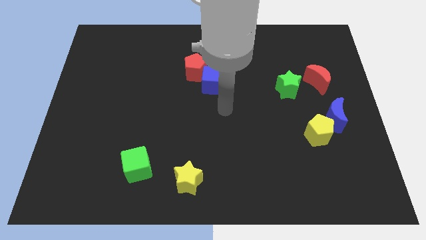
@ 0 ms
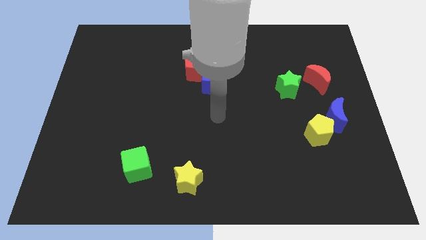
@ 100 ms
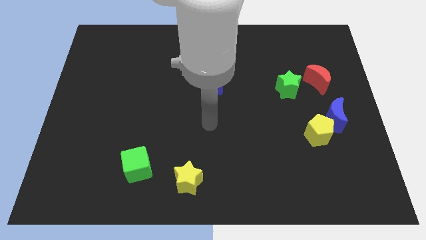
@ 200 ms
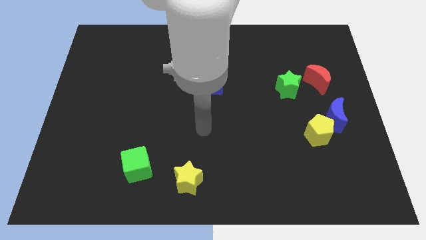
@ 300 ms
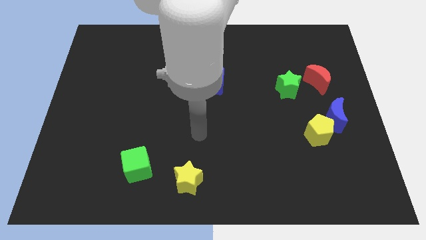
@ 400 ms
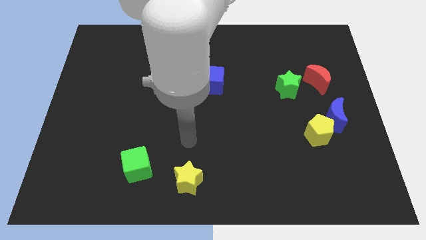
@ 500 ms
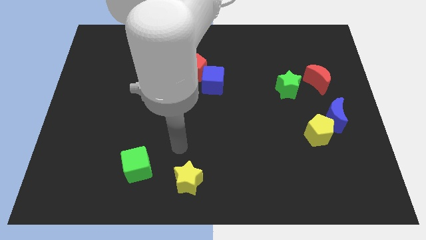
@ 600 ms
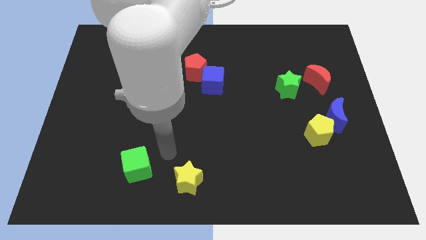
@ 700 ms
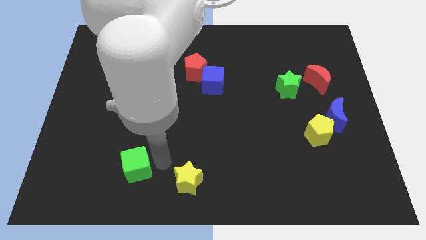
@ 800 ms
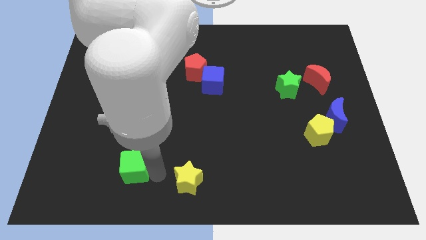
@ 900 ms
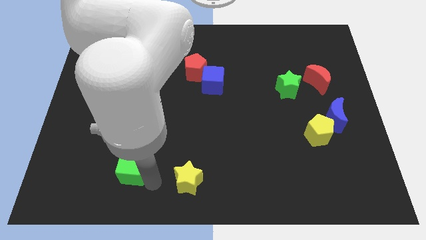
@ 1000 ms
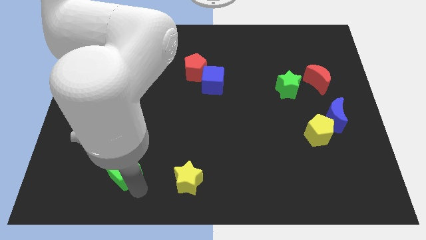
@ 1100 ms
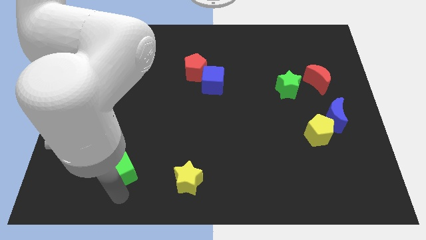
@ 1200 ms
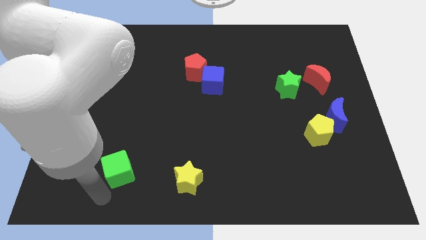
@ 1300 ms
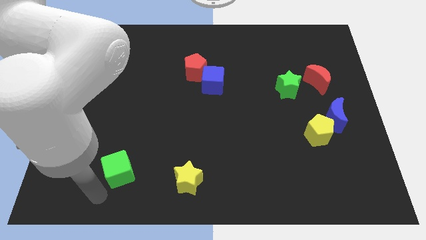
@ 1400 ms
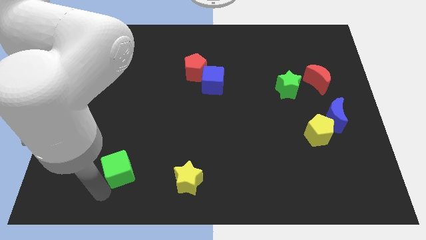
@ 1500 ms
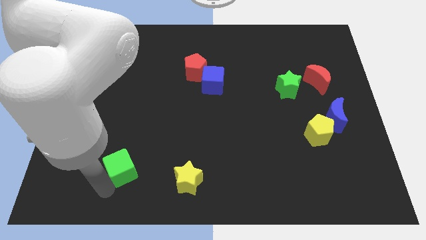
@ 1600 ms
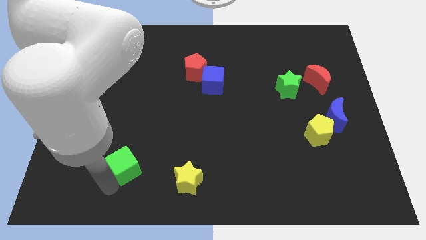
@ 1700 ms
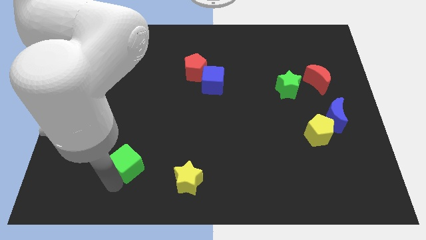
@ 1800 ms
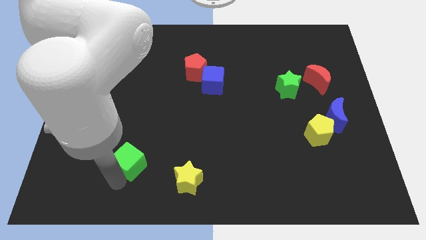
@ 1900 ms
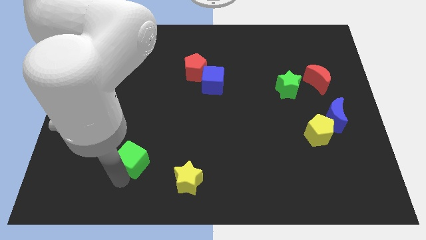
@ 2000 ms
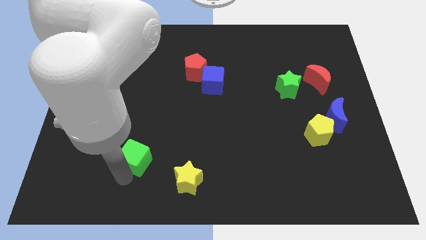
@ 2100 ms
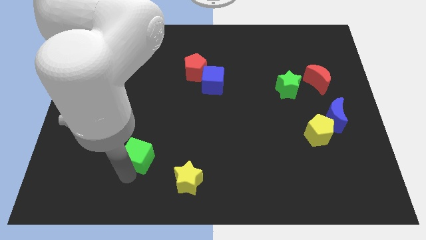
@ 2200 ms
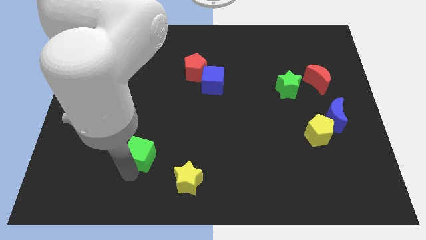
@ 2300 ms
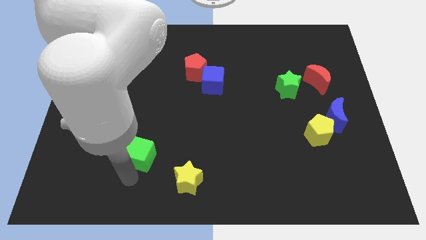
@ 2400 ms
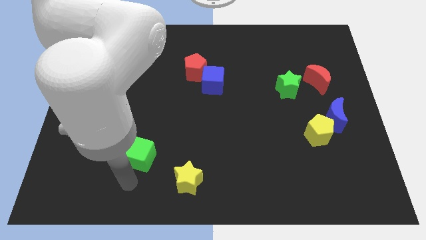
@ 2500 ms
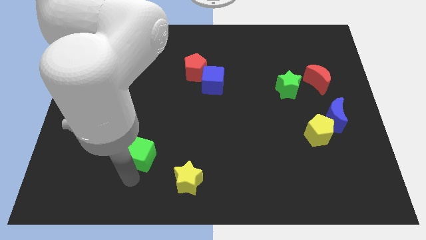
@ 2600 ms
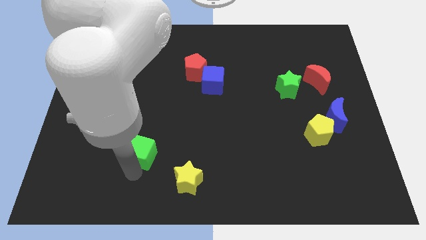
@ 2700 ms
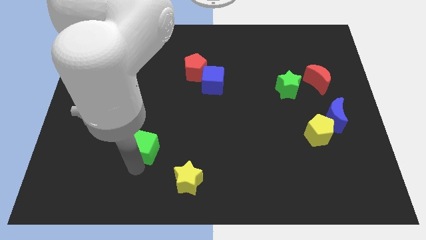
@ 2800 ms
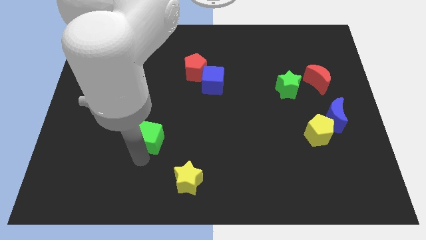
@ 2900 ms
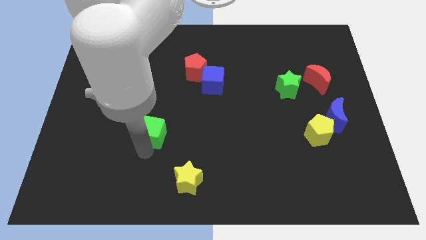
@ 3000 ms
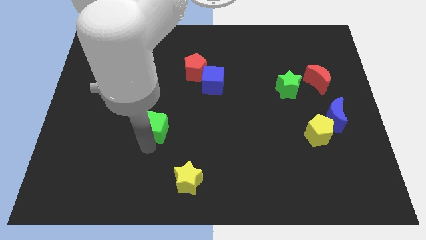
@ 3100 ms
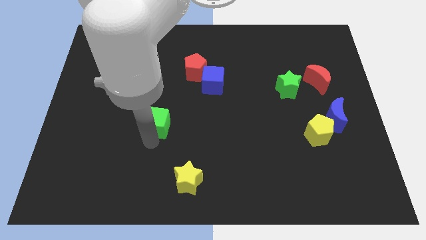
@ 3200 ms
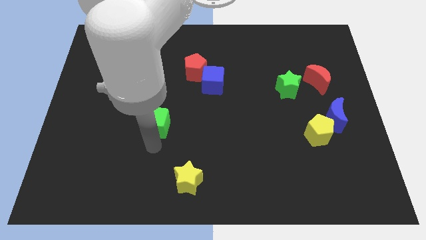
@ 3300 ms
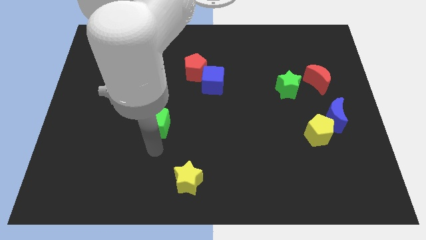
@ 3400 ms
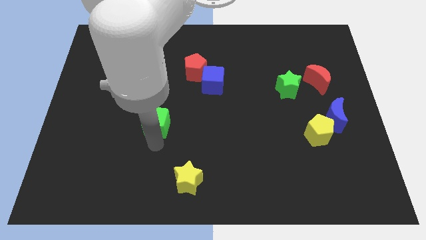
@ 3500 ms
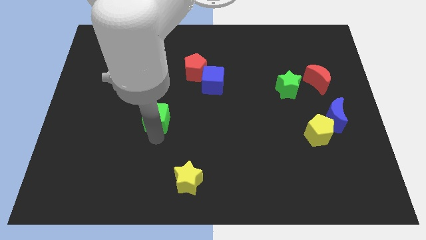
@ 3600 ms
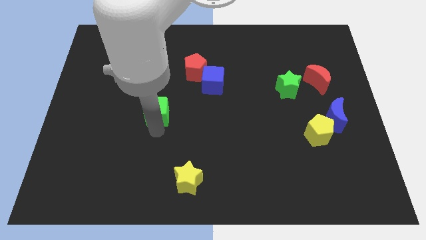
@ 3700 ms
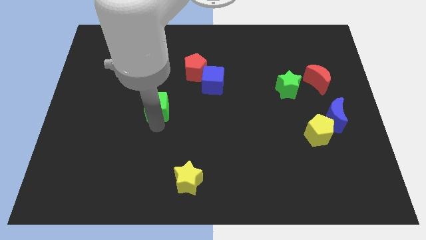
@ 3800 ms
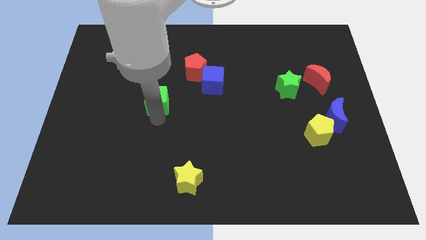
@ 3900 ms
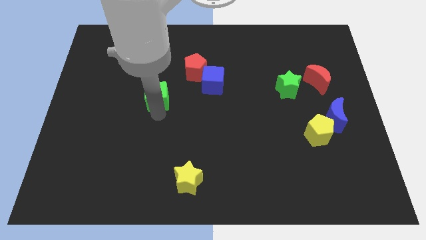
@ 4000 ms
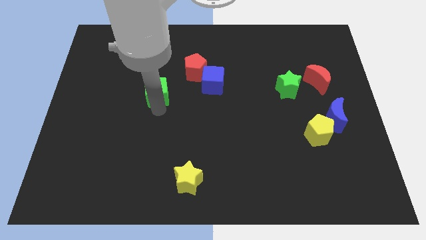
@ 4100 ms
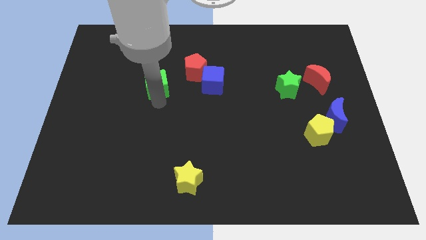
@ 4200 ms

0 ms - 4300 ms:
slide the green cube up

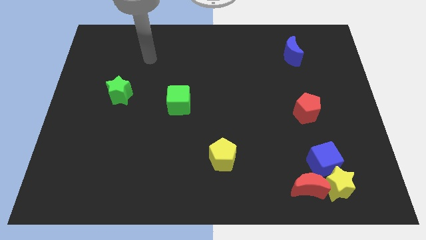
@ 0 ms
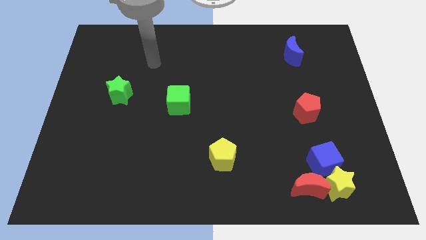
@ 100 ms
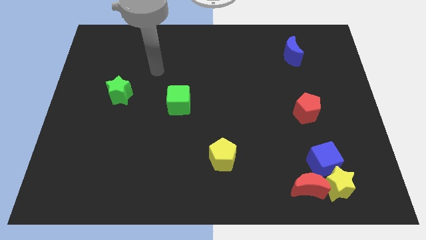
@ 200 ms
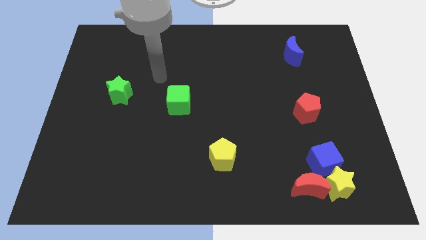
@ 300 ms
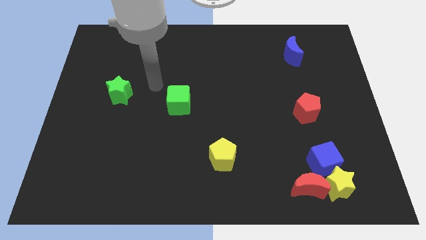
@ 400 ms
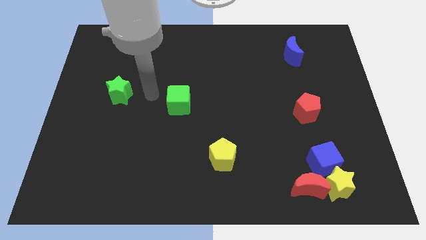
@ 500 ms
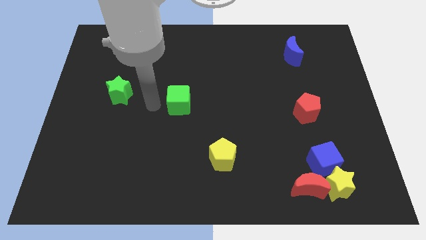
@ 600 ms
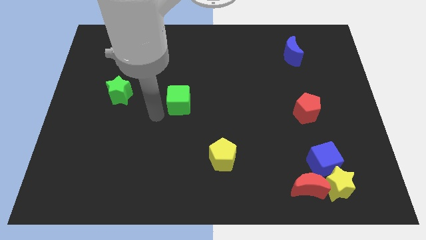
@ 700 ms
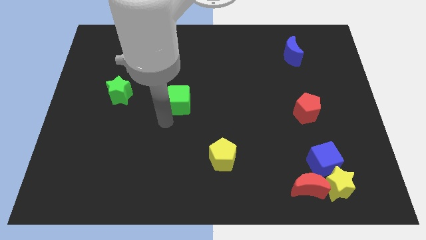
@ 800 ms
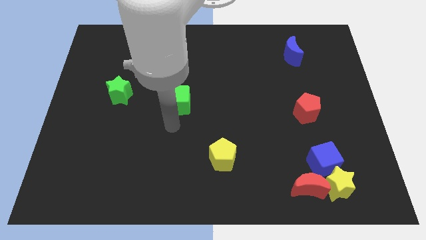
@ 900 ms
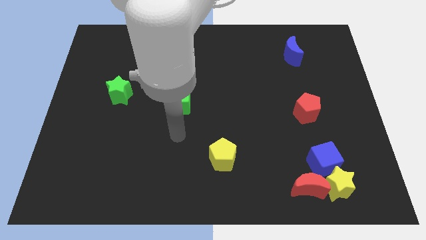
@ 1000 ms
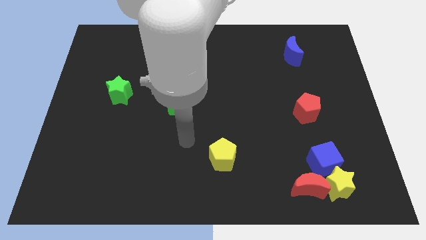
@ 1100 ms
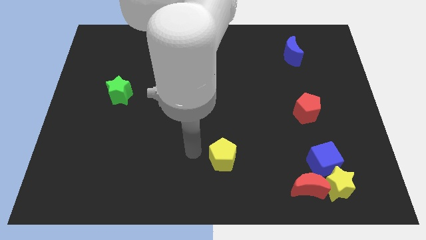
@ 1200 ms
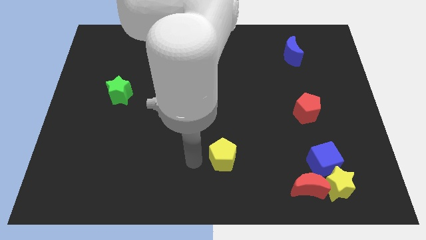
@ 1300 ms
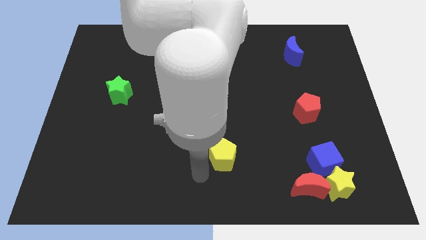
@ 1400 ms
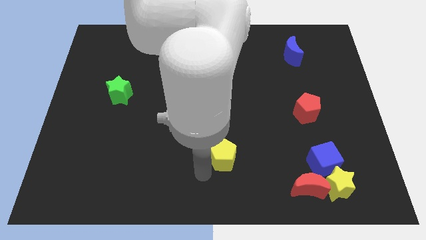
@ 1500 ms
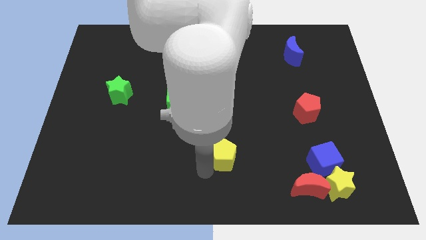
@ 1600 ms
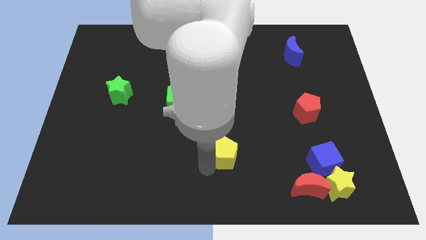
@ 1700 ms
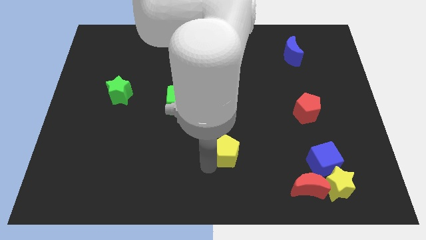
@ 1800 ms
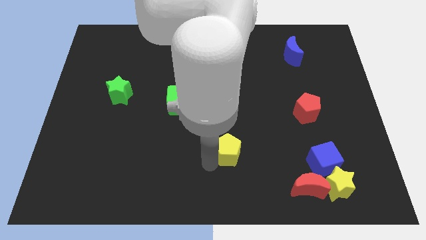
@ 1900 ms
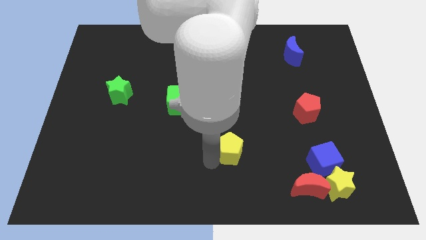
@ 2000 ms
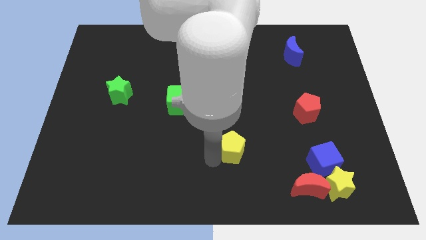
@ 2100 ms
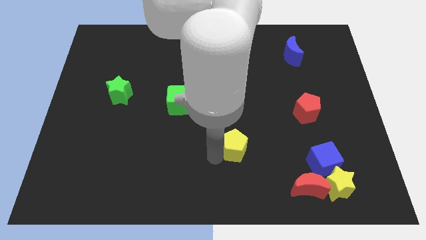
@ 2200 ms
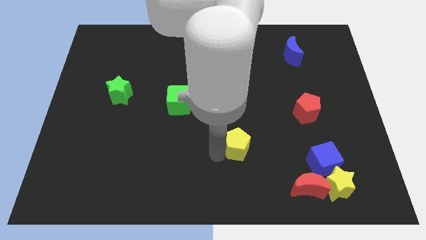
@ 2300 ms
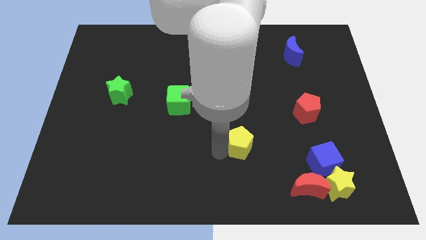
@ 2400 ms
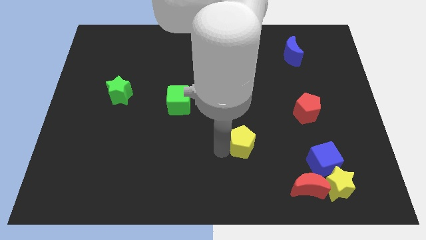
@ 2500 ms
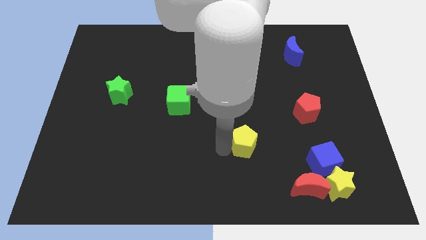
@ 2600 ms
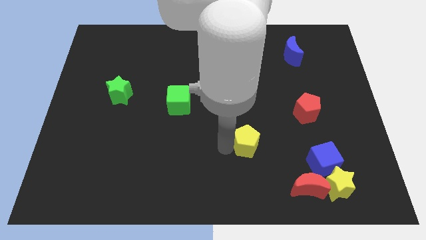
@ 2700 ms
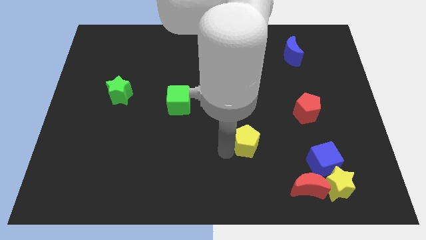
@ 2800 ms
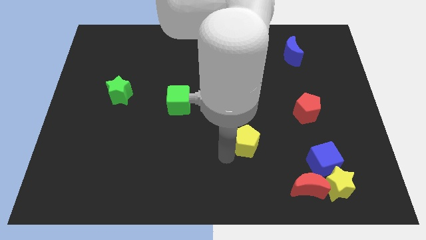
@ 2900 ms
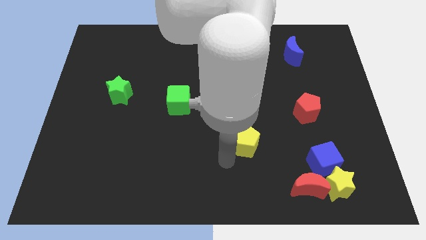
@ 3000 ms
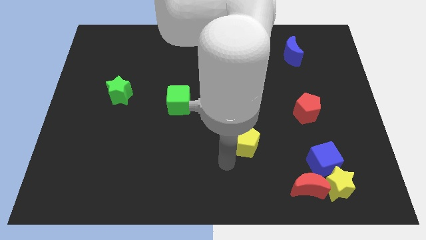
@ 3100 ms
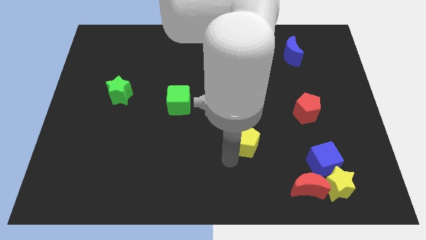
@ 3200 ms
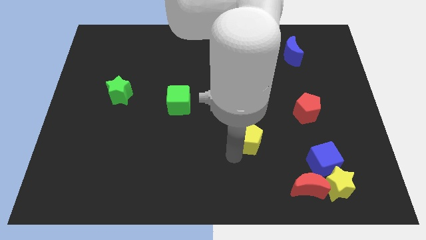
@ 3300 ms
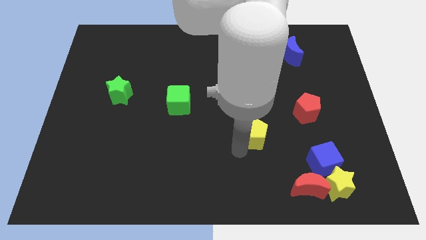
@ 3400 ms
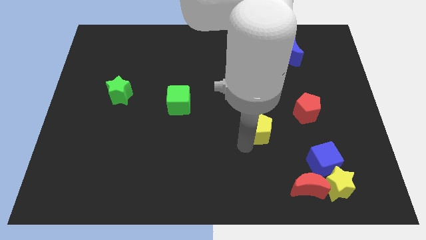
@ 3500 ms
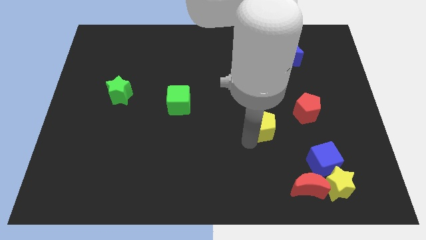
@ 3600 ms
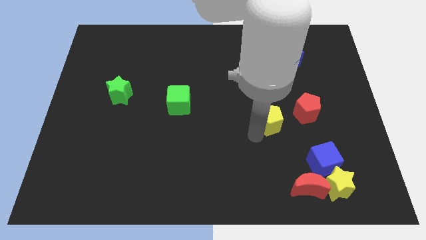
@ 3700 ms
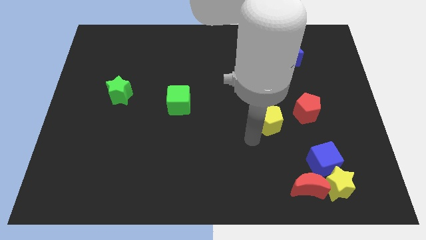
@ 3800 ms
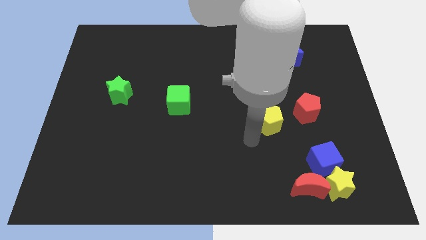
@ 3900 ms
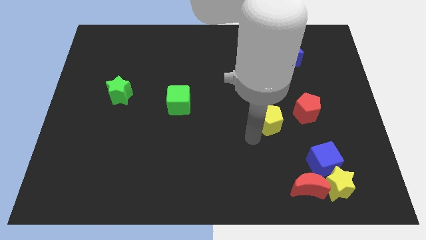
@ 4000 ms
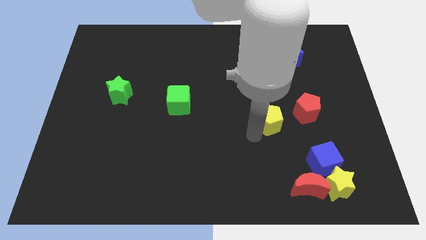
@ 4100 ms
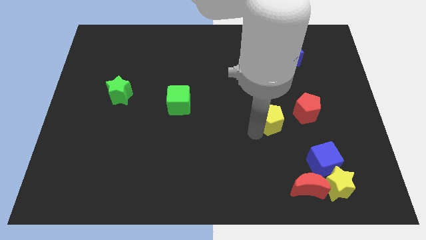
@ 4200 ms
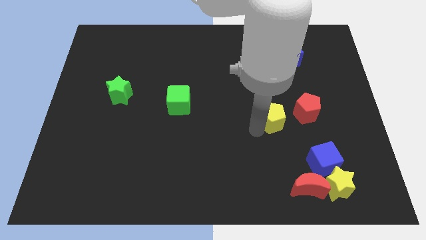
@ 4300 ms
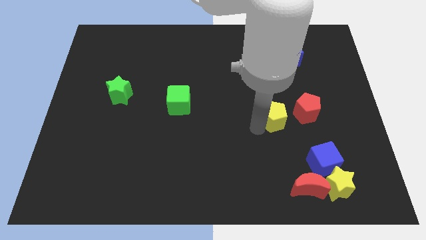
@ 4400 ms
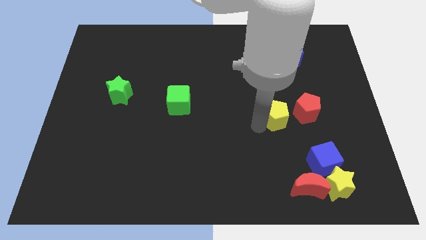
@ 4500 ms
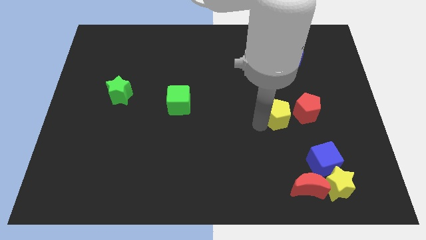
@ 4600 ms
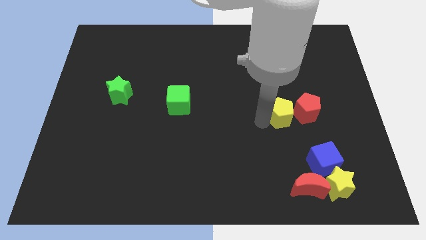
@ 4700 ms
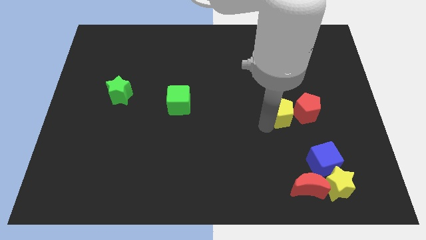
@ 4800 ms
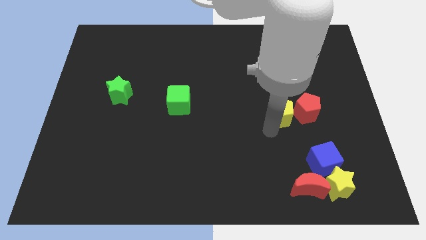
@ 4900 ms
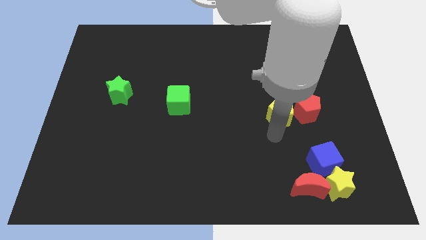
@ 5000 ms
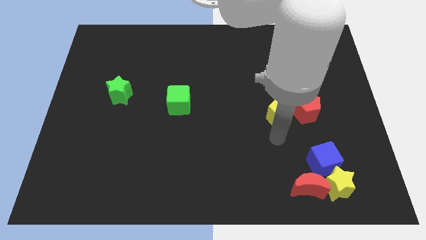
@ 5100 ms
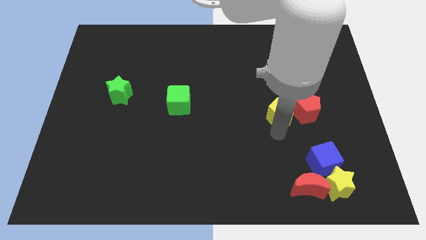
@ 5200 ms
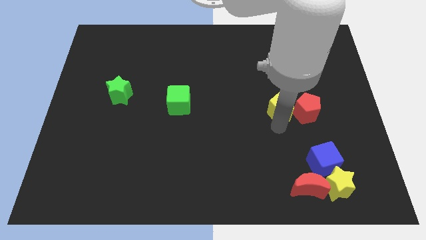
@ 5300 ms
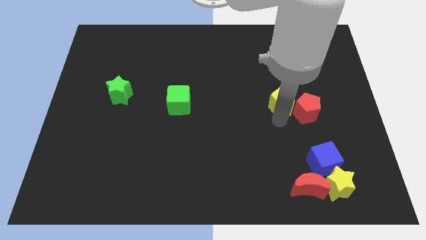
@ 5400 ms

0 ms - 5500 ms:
slide the yellow pentagon up and right
